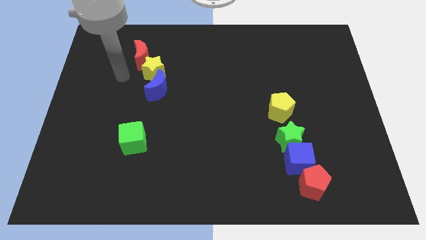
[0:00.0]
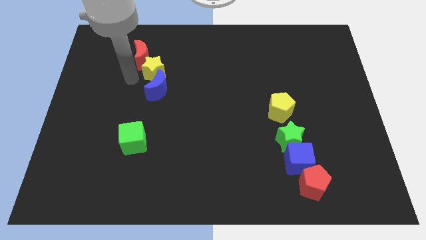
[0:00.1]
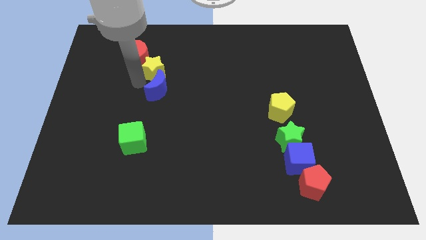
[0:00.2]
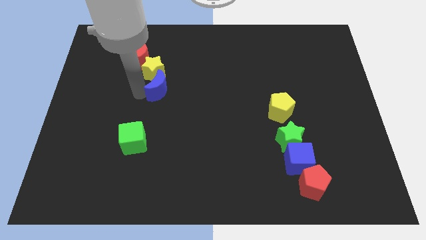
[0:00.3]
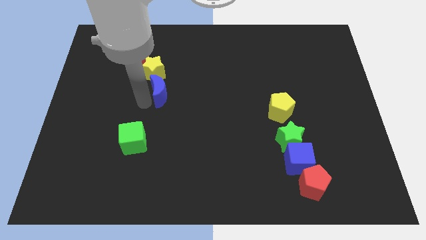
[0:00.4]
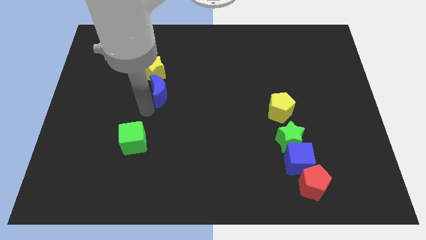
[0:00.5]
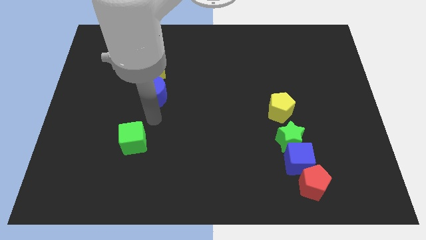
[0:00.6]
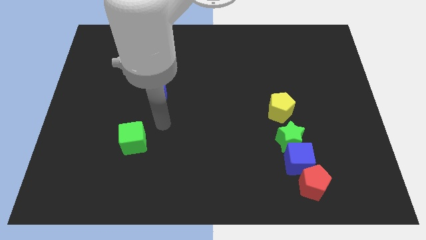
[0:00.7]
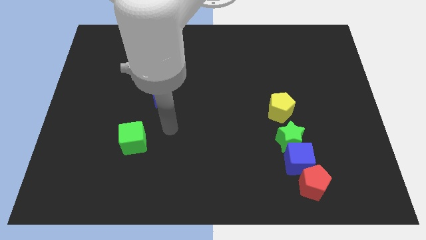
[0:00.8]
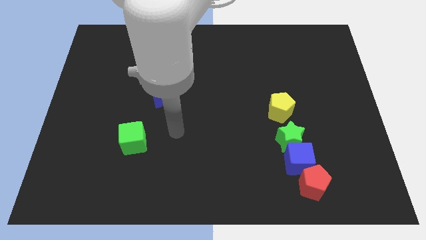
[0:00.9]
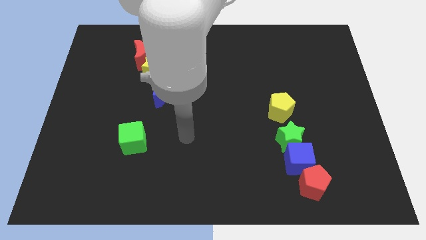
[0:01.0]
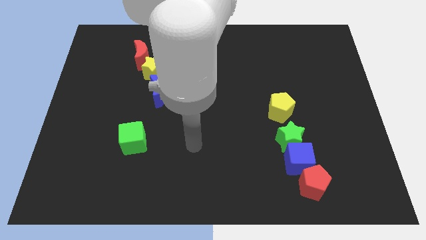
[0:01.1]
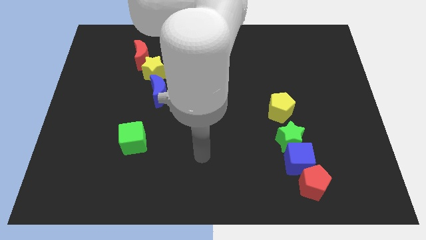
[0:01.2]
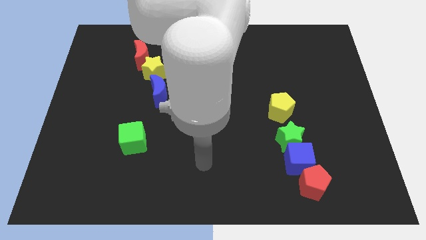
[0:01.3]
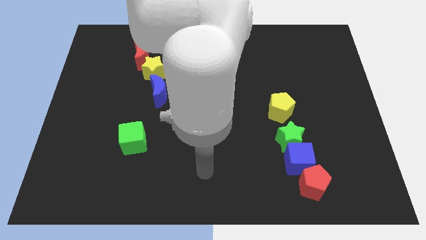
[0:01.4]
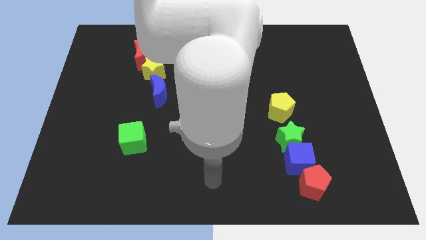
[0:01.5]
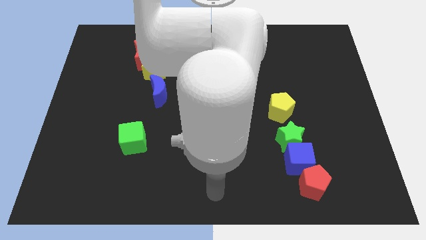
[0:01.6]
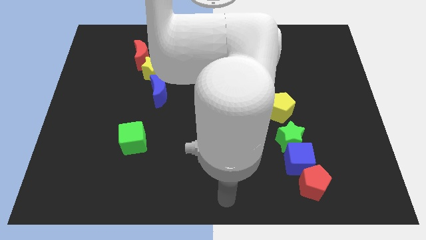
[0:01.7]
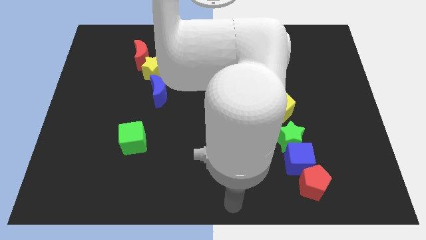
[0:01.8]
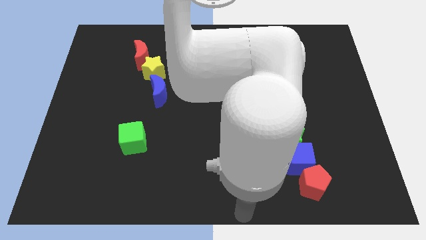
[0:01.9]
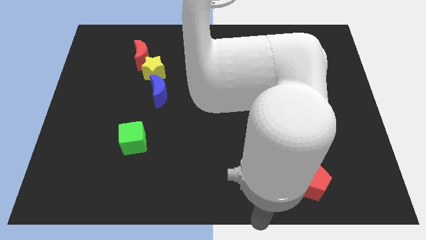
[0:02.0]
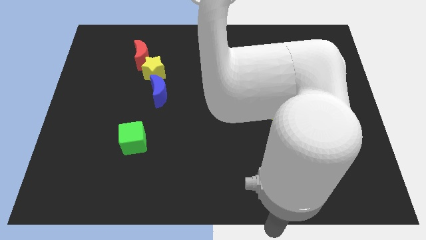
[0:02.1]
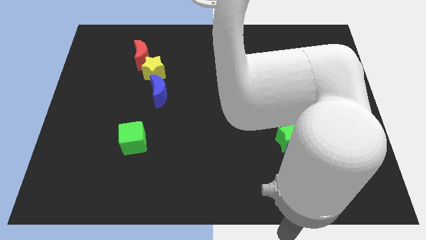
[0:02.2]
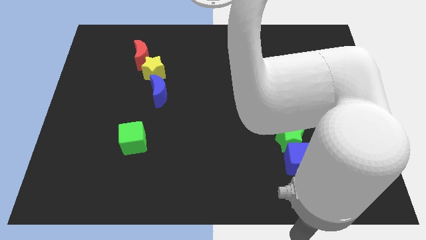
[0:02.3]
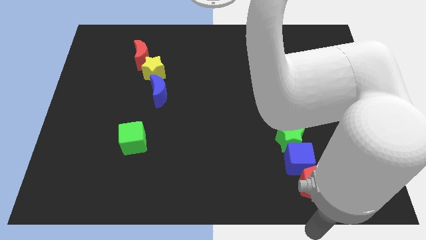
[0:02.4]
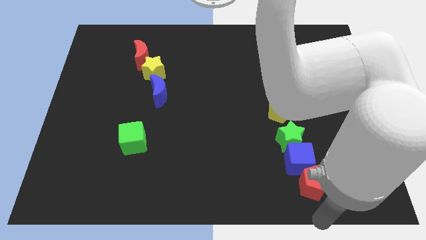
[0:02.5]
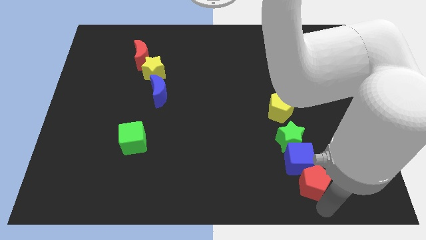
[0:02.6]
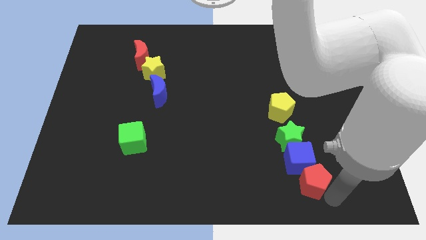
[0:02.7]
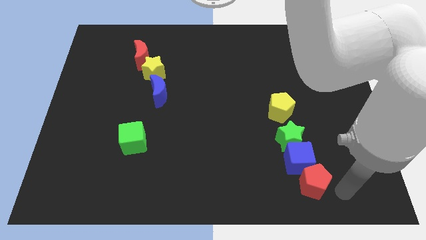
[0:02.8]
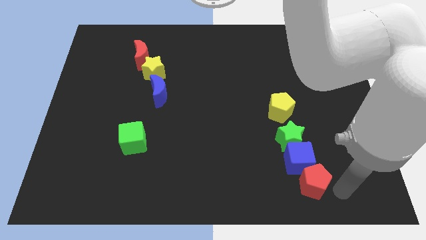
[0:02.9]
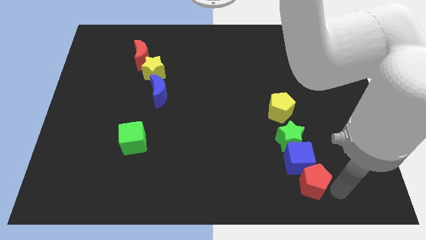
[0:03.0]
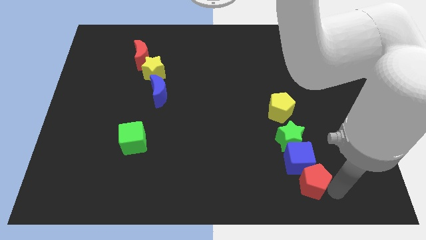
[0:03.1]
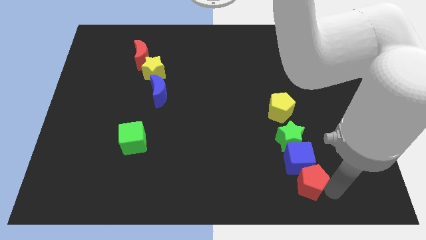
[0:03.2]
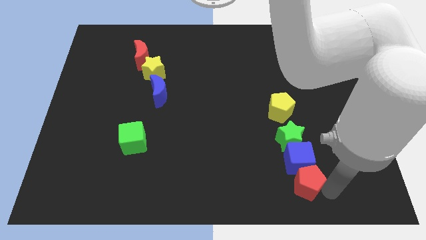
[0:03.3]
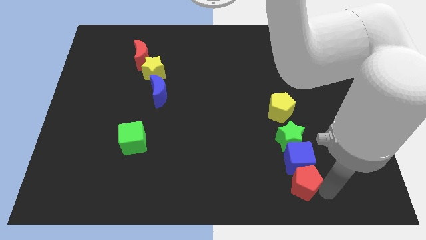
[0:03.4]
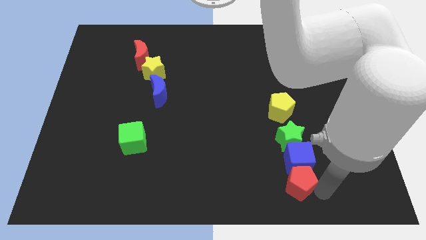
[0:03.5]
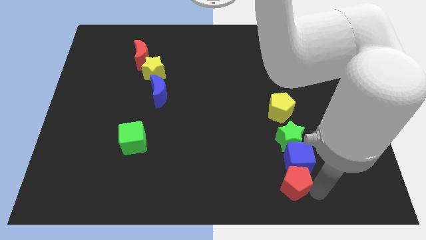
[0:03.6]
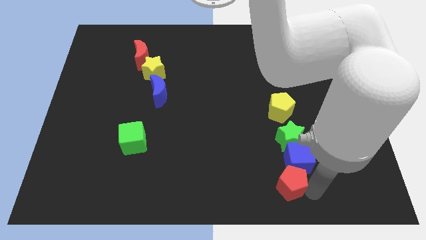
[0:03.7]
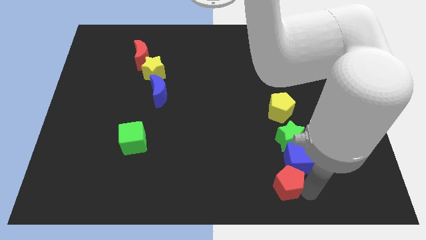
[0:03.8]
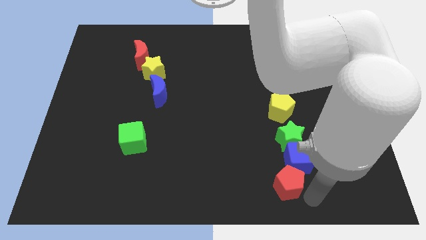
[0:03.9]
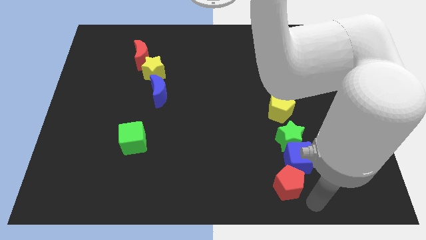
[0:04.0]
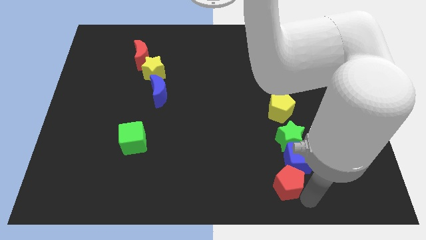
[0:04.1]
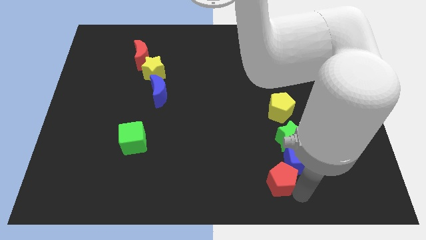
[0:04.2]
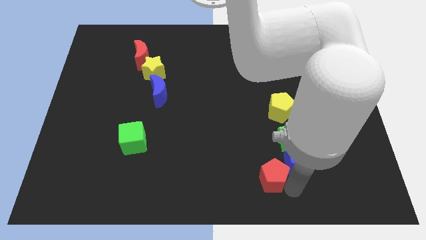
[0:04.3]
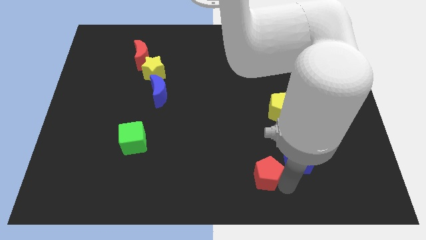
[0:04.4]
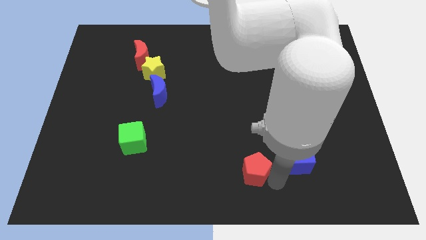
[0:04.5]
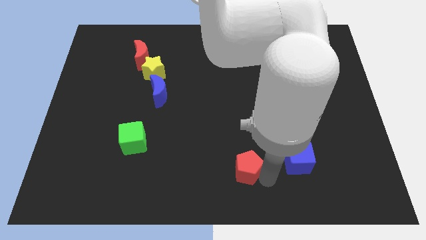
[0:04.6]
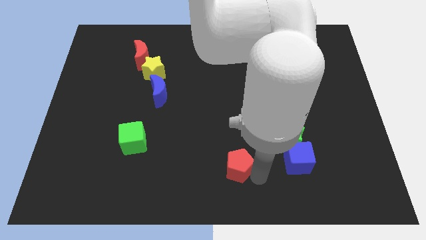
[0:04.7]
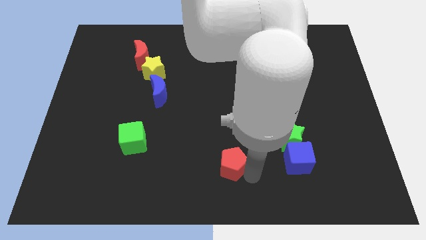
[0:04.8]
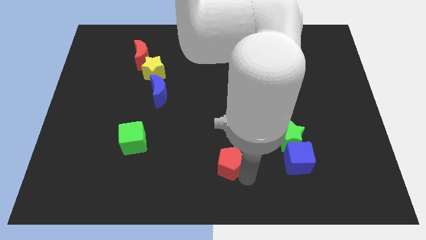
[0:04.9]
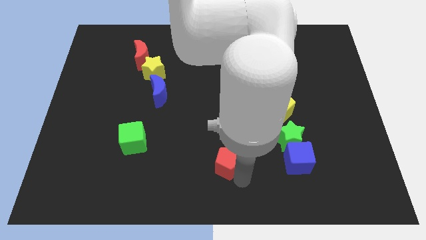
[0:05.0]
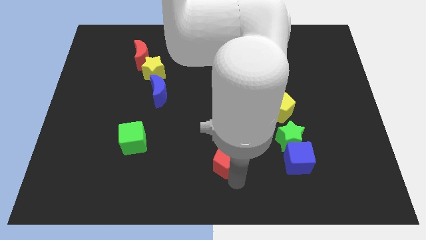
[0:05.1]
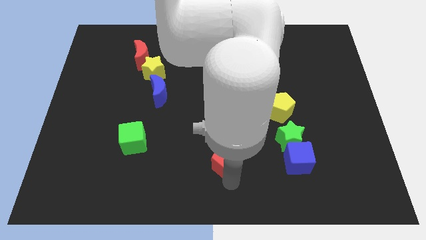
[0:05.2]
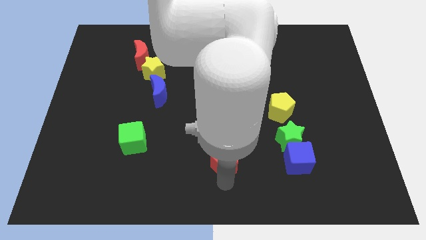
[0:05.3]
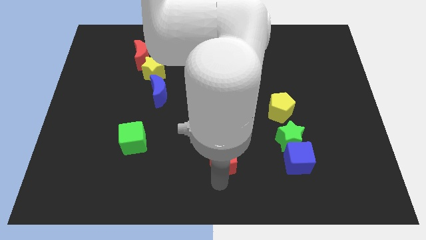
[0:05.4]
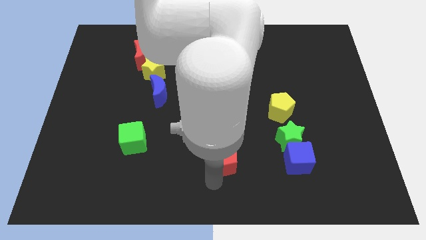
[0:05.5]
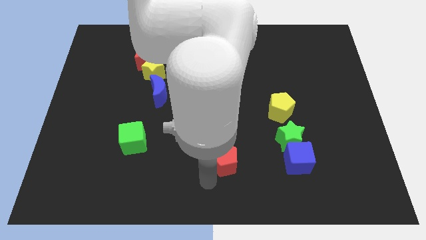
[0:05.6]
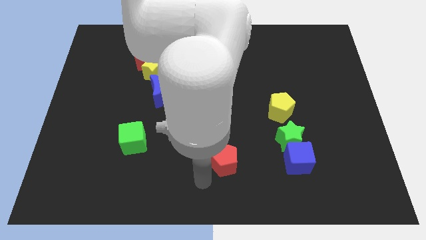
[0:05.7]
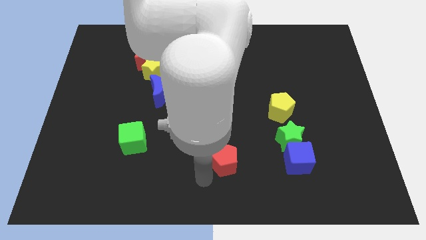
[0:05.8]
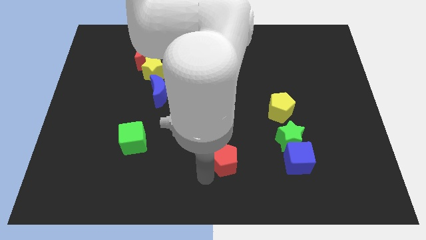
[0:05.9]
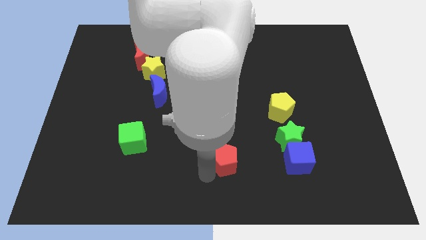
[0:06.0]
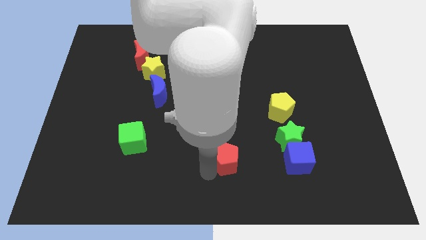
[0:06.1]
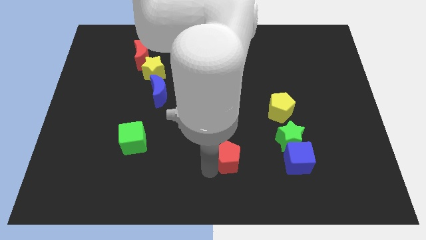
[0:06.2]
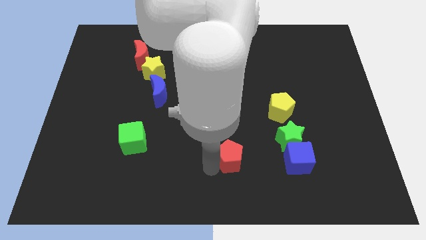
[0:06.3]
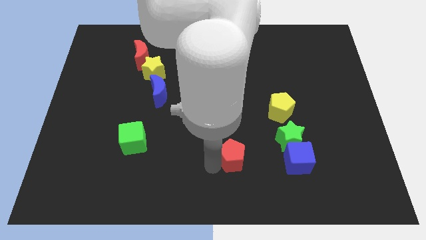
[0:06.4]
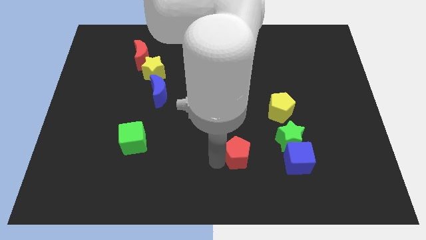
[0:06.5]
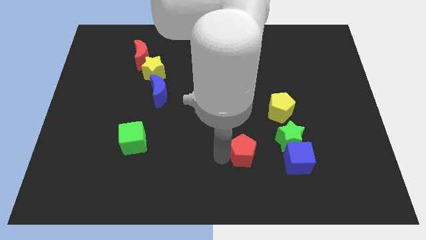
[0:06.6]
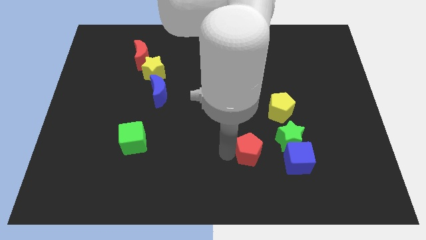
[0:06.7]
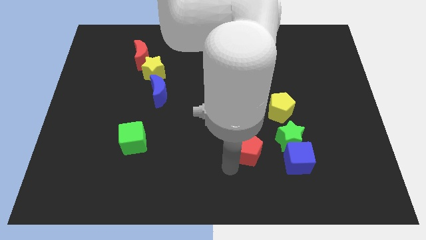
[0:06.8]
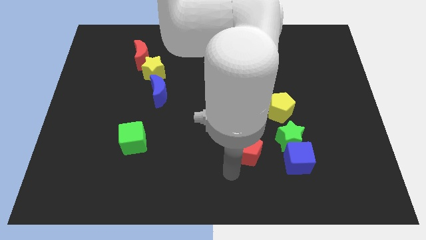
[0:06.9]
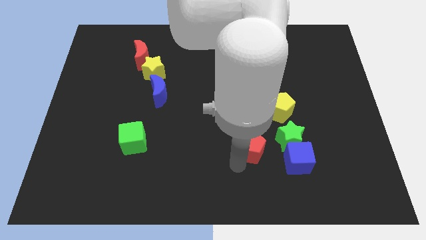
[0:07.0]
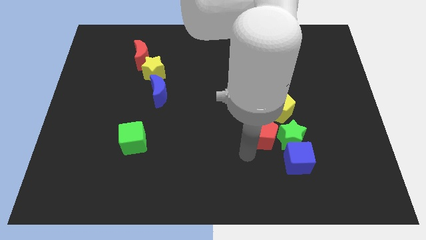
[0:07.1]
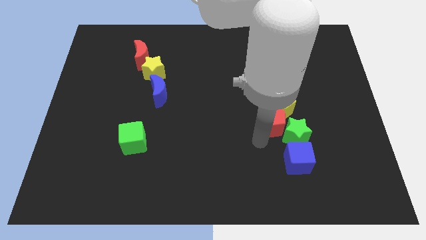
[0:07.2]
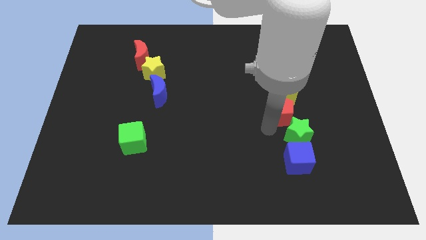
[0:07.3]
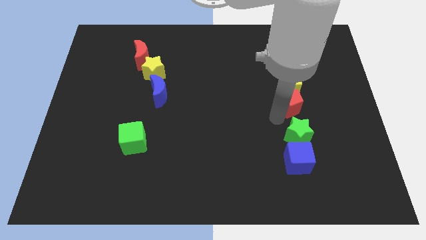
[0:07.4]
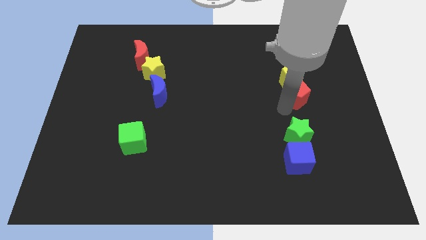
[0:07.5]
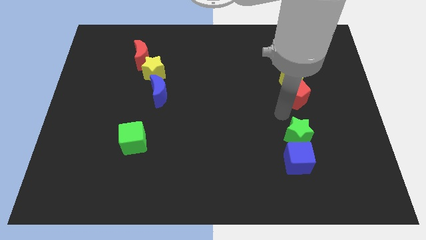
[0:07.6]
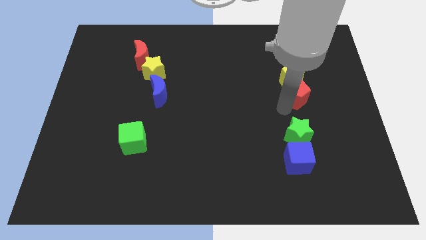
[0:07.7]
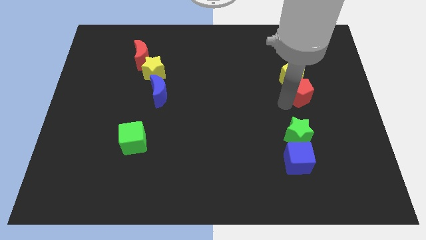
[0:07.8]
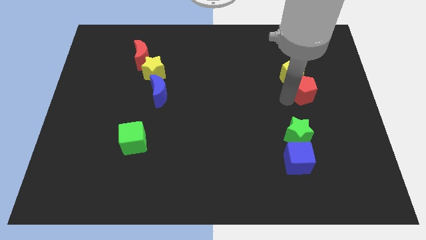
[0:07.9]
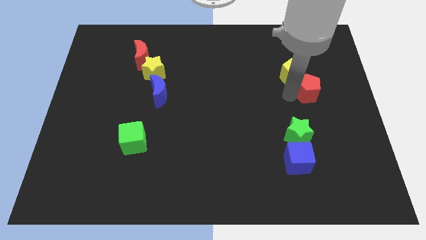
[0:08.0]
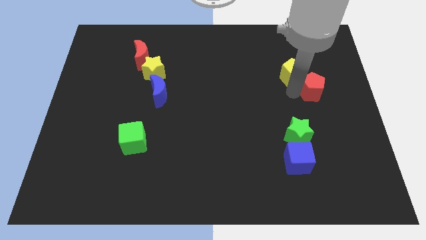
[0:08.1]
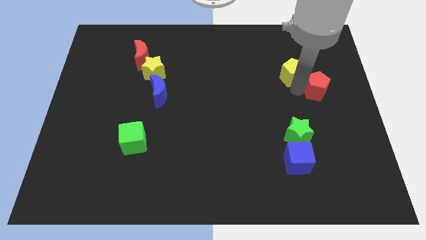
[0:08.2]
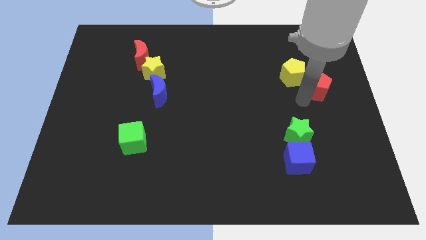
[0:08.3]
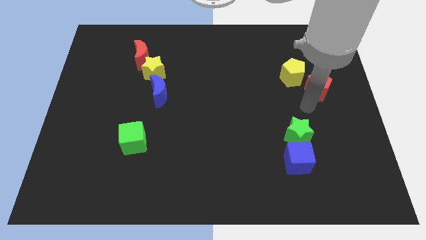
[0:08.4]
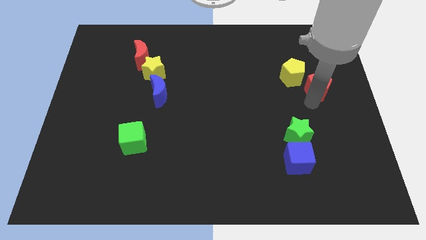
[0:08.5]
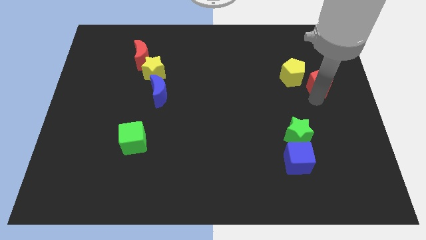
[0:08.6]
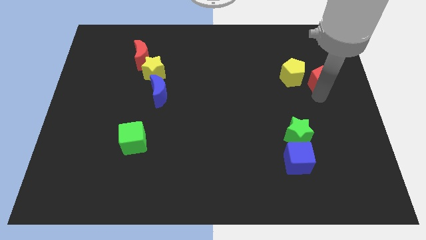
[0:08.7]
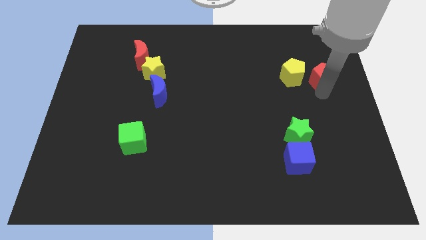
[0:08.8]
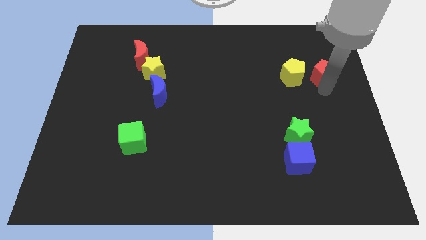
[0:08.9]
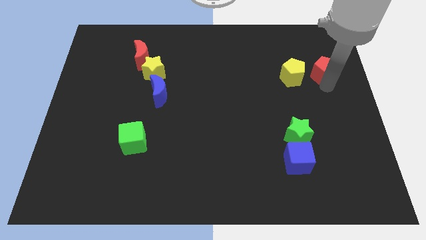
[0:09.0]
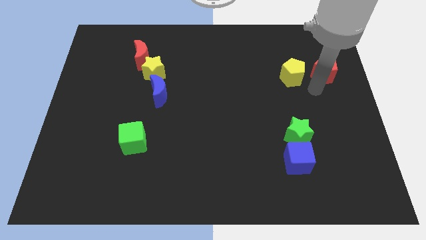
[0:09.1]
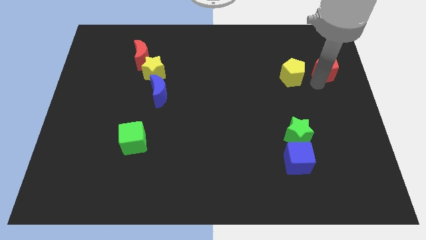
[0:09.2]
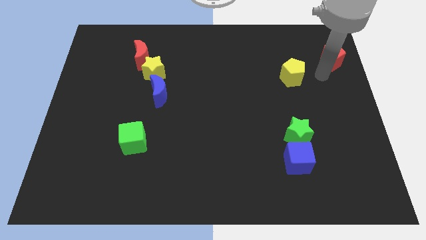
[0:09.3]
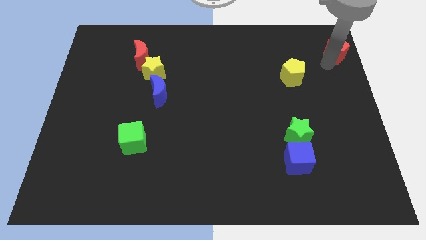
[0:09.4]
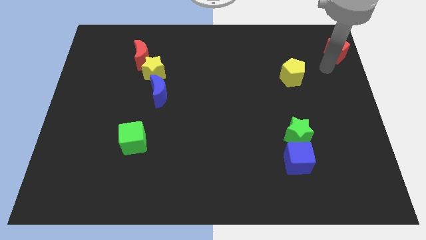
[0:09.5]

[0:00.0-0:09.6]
put the red pentagon to the upper right corner
